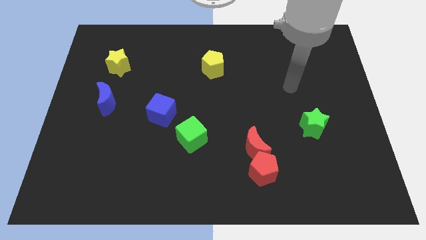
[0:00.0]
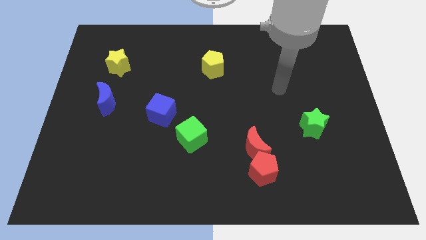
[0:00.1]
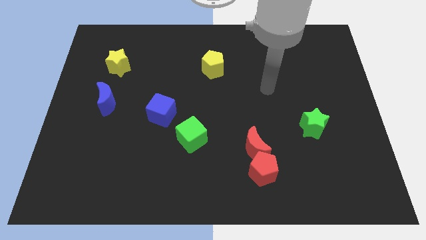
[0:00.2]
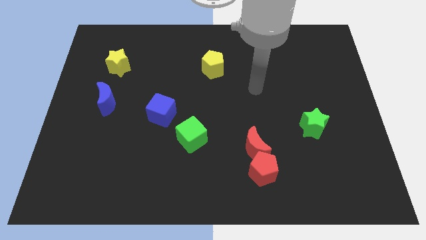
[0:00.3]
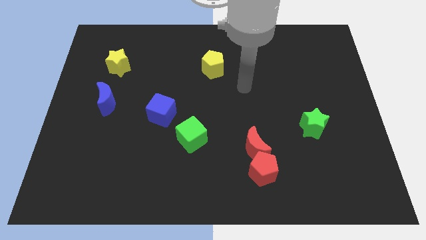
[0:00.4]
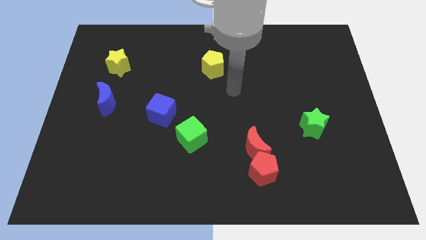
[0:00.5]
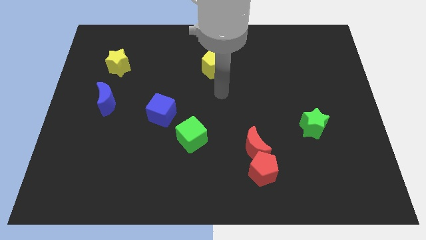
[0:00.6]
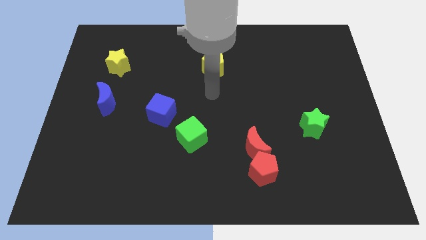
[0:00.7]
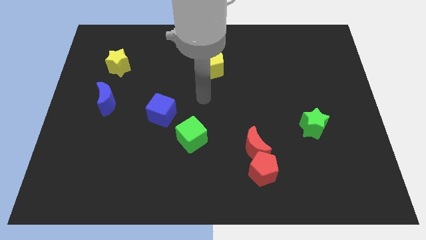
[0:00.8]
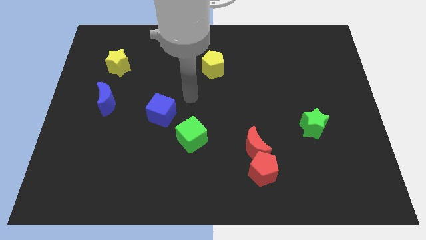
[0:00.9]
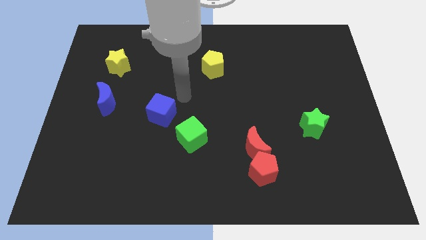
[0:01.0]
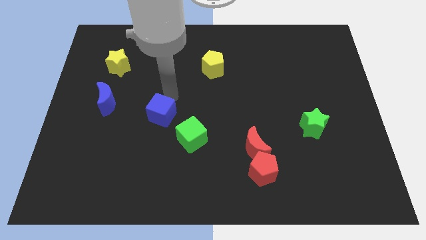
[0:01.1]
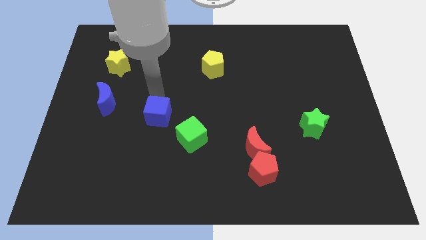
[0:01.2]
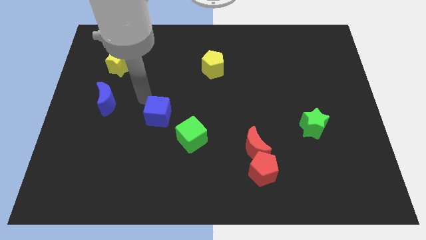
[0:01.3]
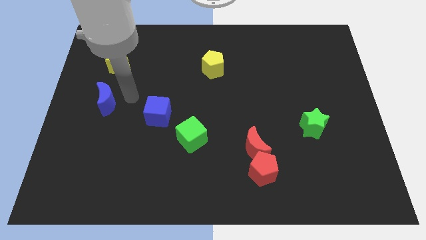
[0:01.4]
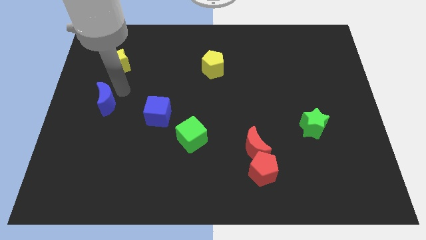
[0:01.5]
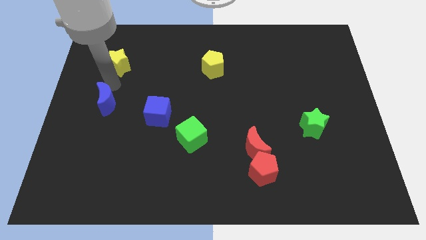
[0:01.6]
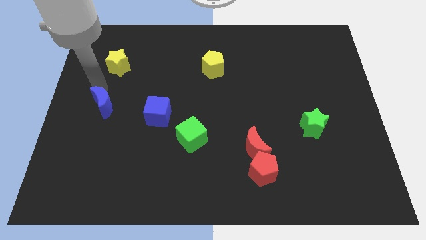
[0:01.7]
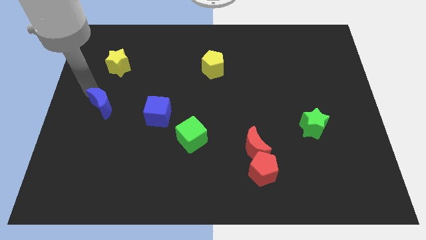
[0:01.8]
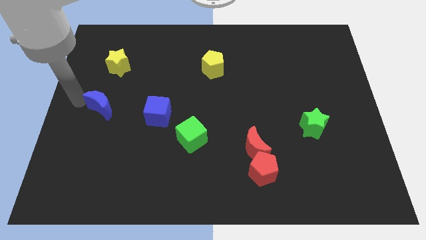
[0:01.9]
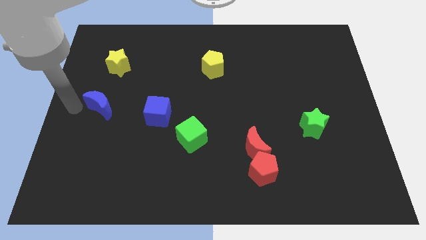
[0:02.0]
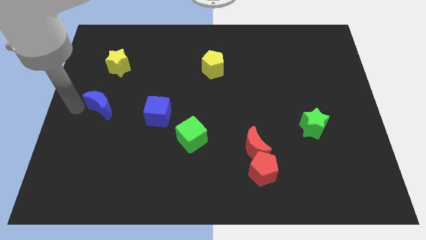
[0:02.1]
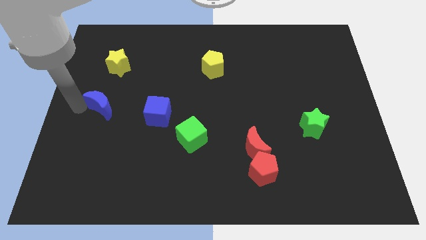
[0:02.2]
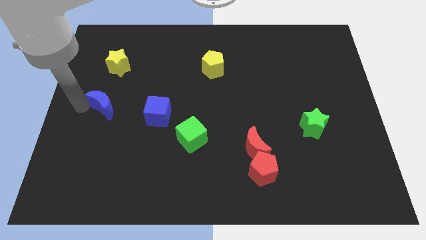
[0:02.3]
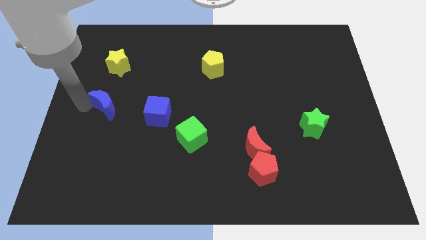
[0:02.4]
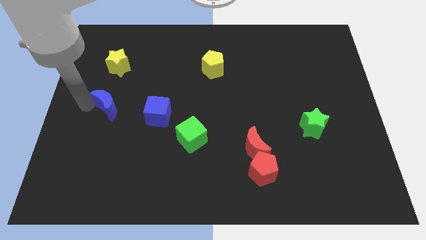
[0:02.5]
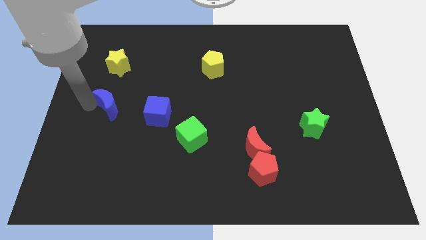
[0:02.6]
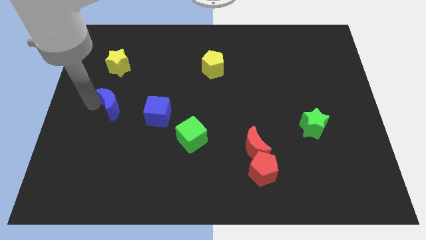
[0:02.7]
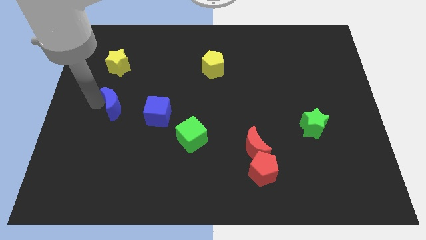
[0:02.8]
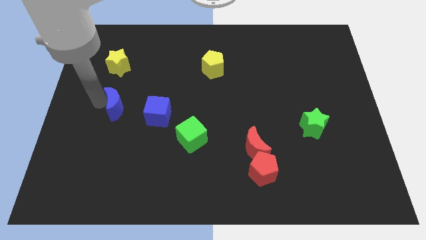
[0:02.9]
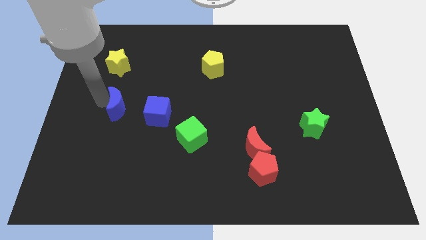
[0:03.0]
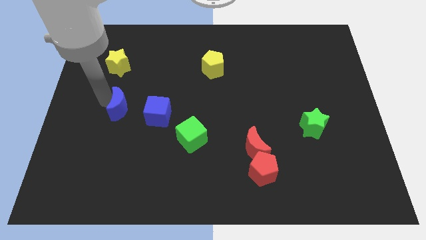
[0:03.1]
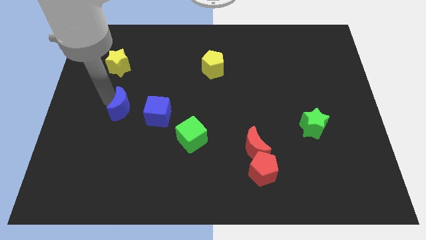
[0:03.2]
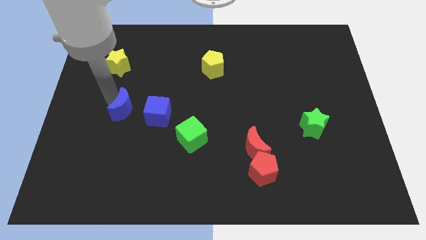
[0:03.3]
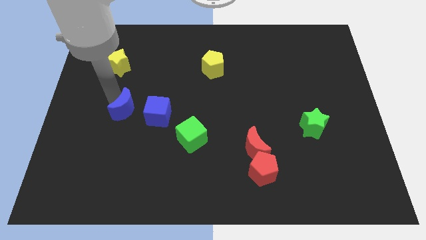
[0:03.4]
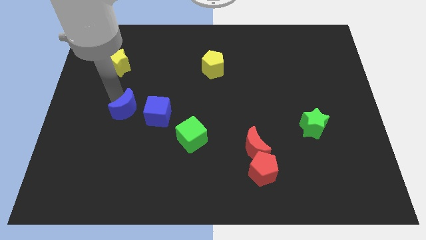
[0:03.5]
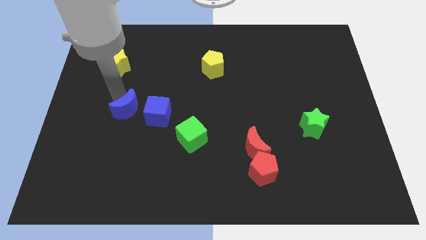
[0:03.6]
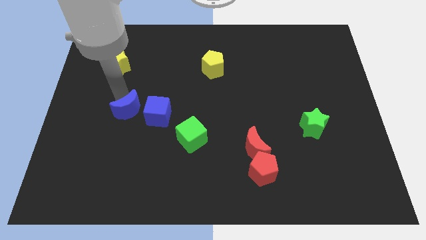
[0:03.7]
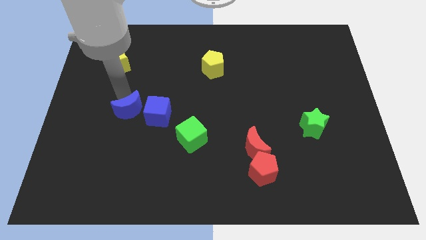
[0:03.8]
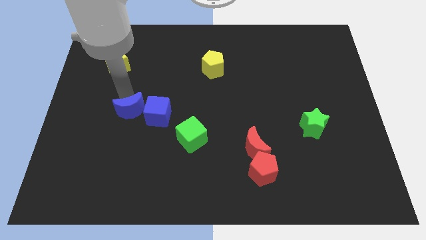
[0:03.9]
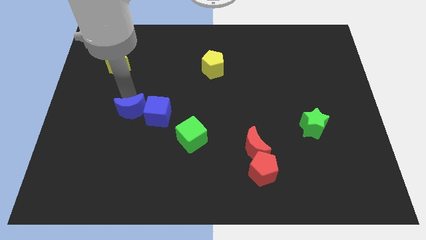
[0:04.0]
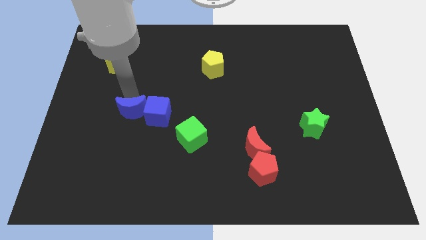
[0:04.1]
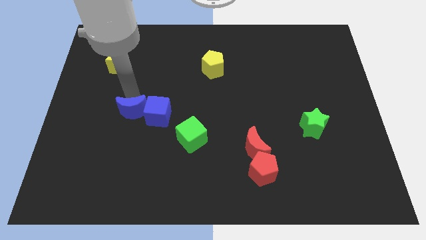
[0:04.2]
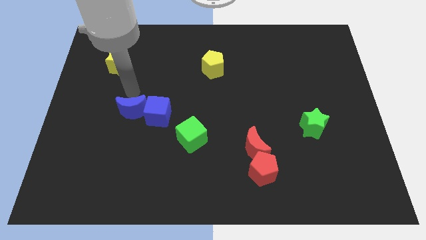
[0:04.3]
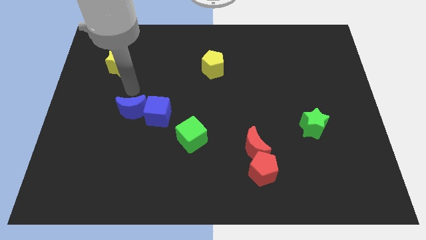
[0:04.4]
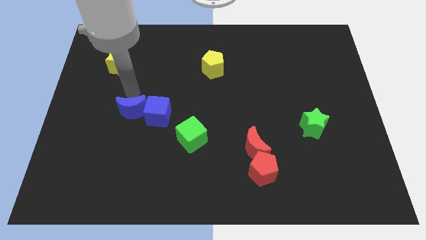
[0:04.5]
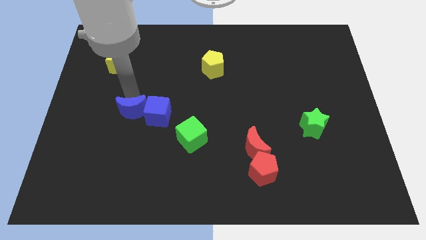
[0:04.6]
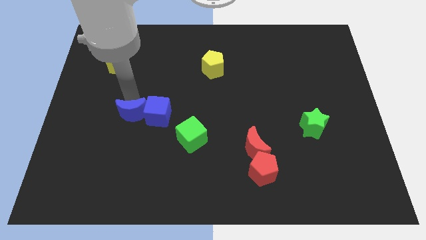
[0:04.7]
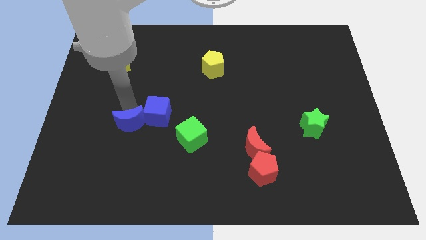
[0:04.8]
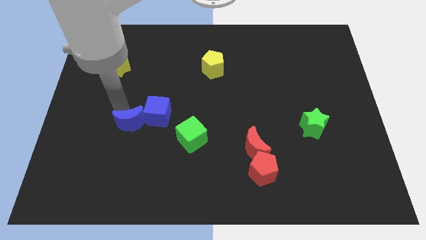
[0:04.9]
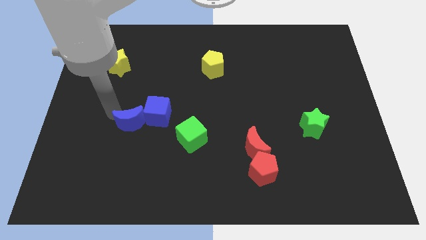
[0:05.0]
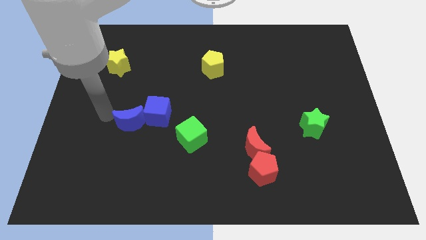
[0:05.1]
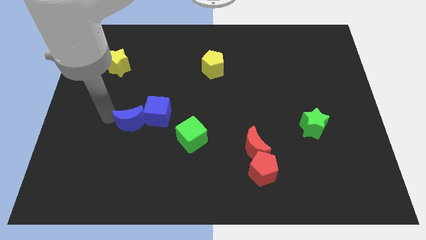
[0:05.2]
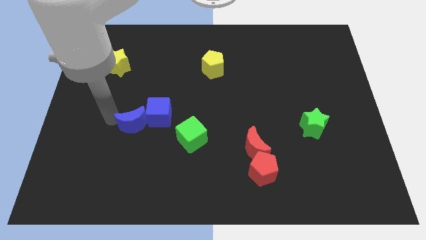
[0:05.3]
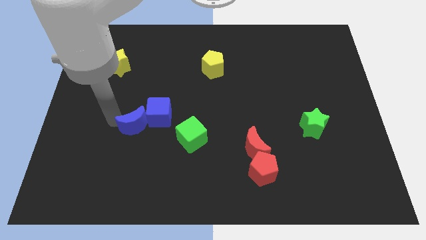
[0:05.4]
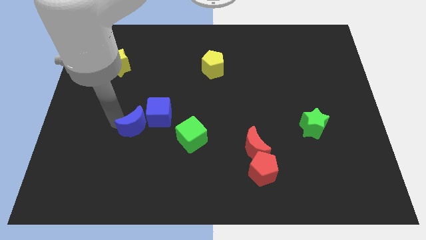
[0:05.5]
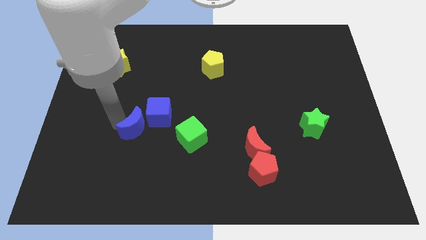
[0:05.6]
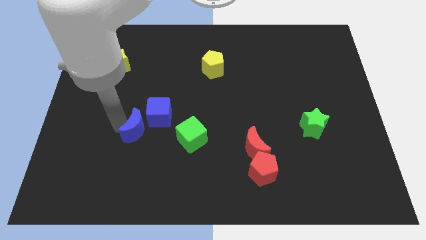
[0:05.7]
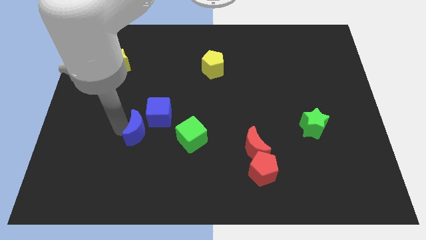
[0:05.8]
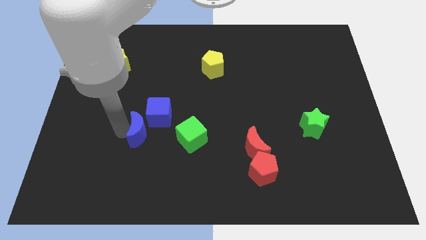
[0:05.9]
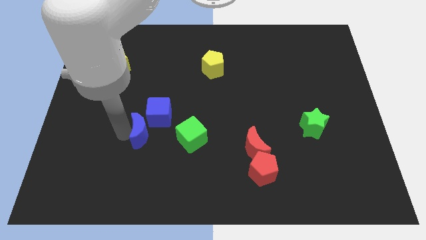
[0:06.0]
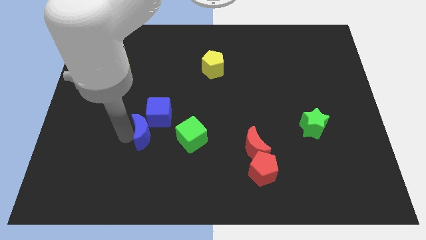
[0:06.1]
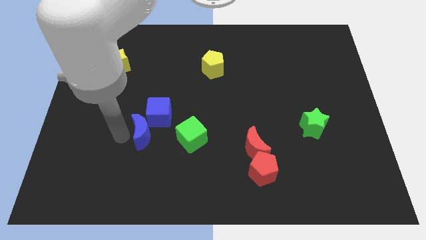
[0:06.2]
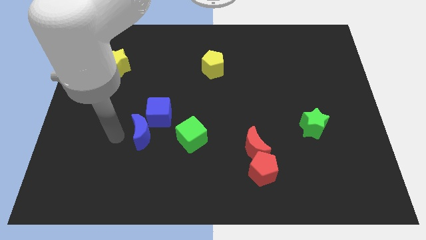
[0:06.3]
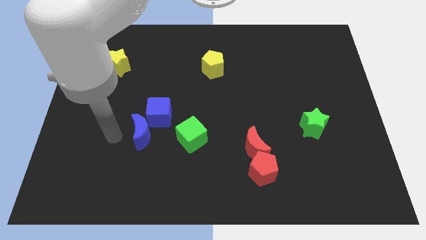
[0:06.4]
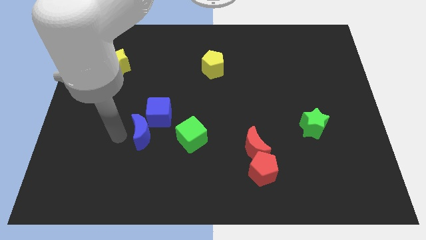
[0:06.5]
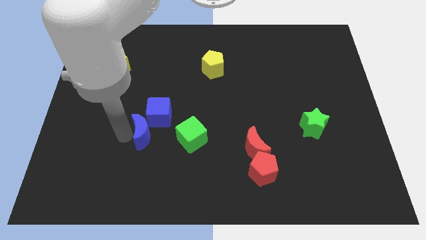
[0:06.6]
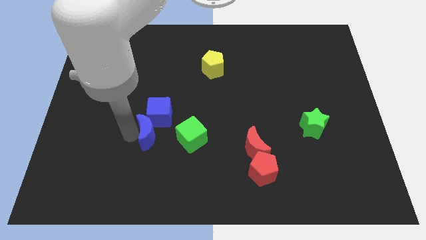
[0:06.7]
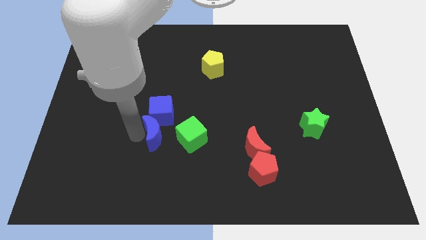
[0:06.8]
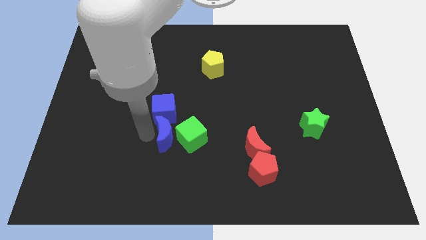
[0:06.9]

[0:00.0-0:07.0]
push the blue moon next to the green cube

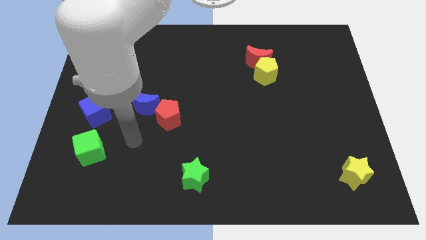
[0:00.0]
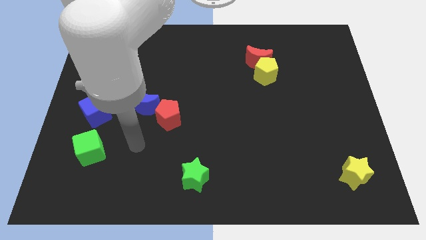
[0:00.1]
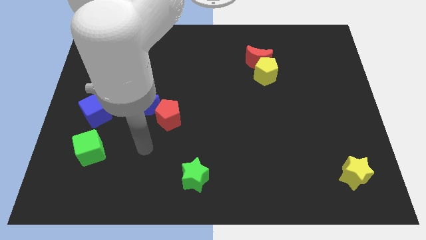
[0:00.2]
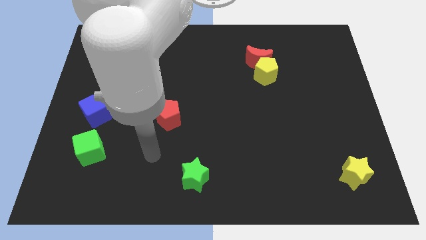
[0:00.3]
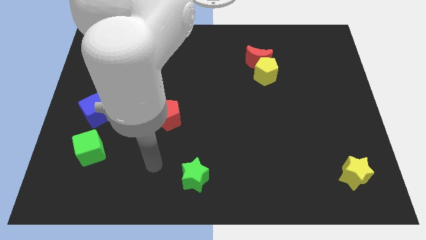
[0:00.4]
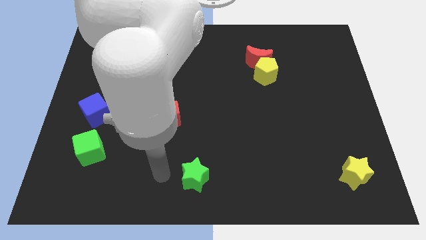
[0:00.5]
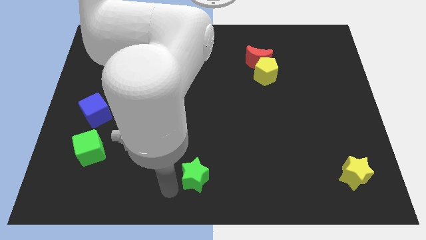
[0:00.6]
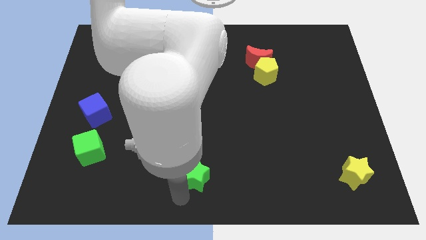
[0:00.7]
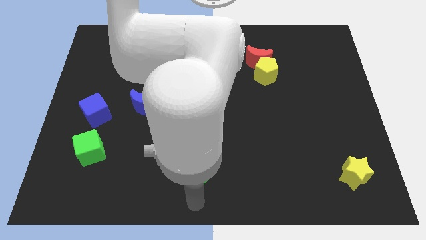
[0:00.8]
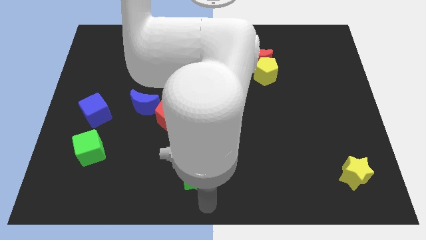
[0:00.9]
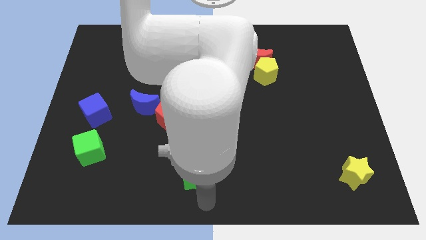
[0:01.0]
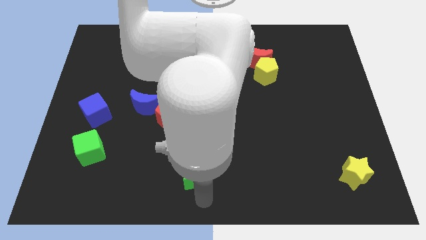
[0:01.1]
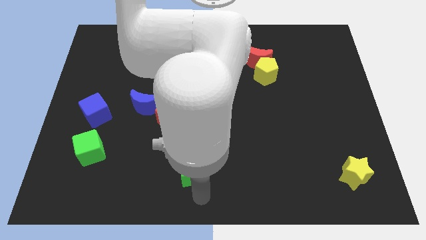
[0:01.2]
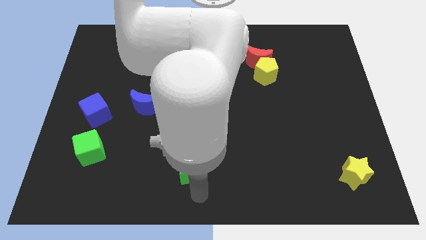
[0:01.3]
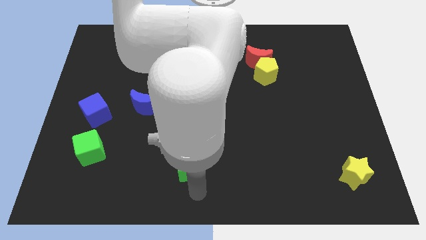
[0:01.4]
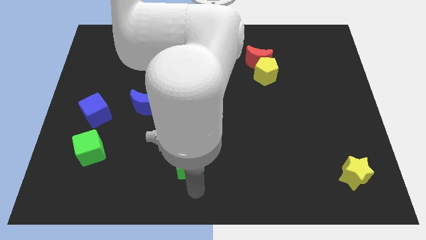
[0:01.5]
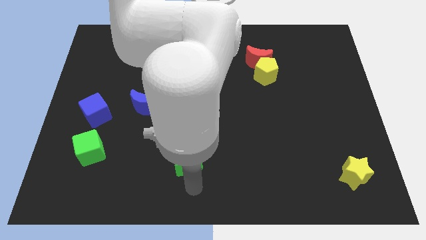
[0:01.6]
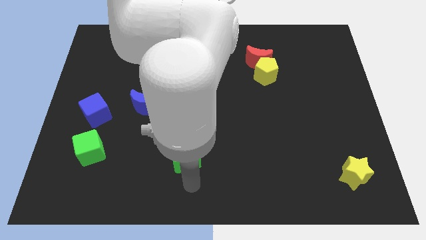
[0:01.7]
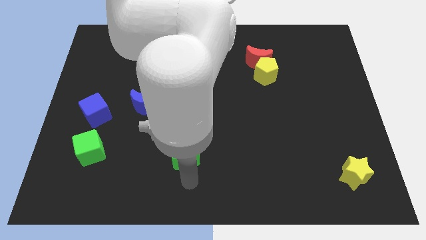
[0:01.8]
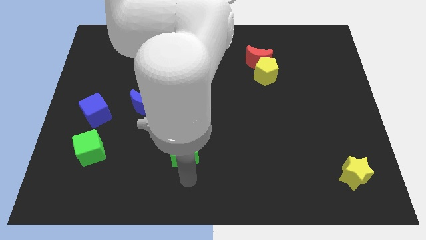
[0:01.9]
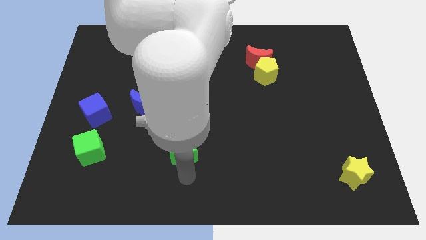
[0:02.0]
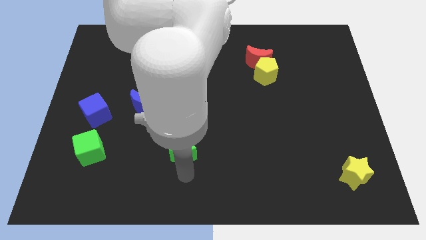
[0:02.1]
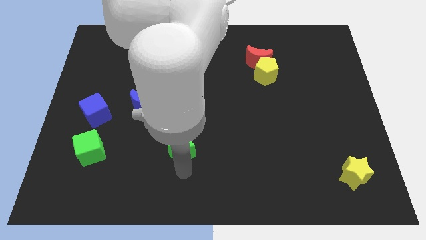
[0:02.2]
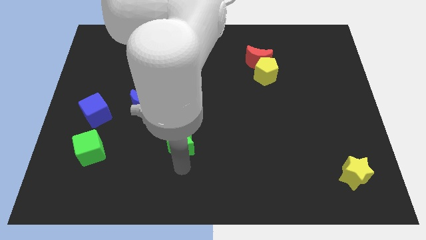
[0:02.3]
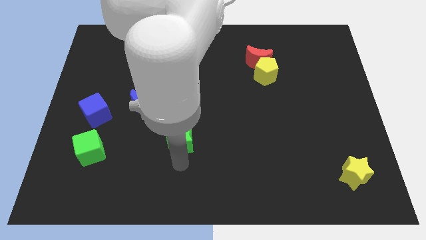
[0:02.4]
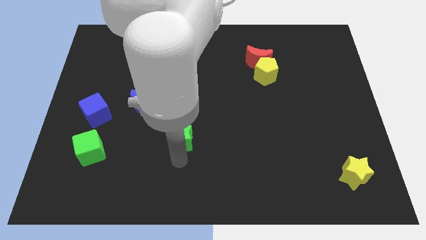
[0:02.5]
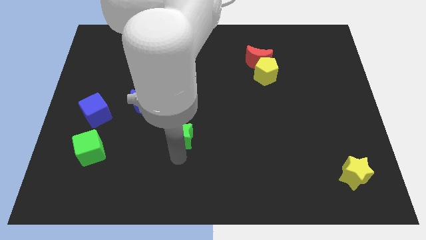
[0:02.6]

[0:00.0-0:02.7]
put the green star close to the red pentagon
